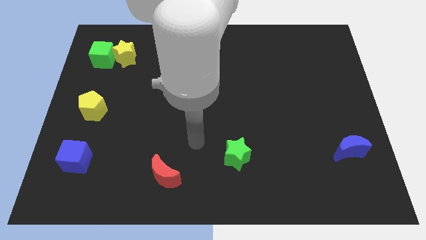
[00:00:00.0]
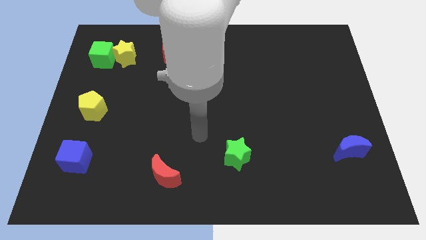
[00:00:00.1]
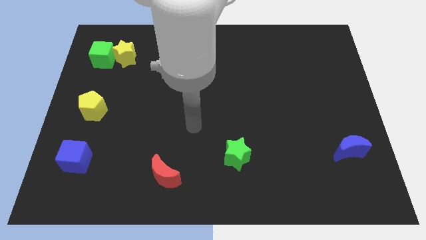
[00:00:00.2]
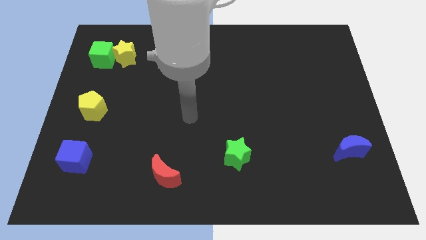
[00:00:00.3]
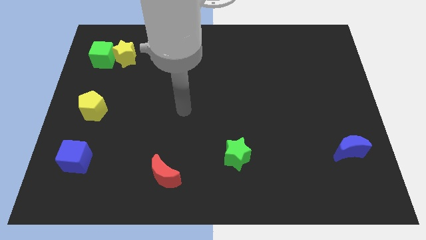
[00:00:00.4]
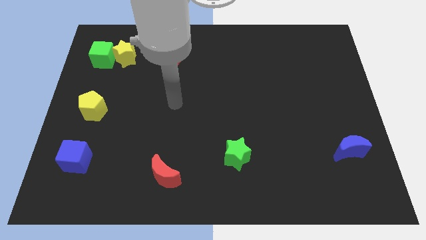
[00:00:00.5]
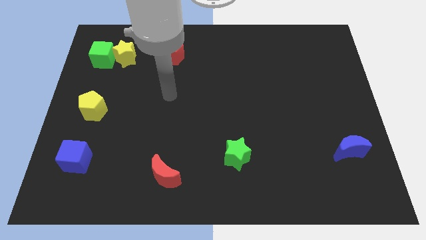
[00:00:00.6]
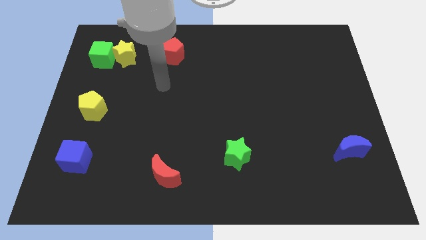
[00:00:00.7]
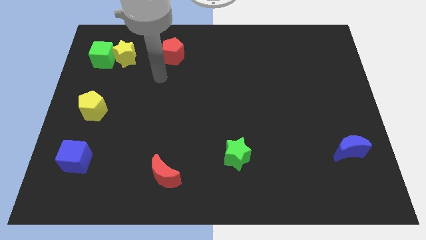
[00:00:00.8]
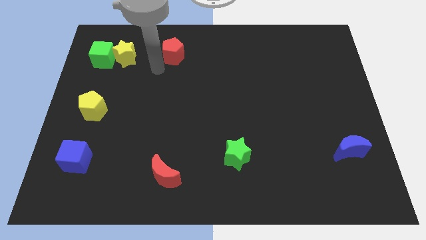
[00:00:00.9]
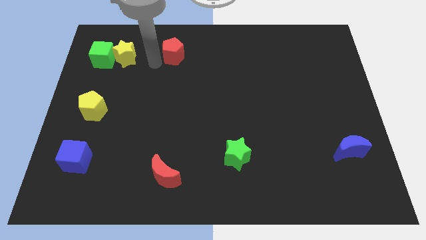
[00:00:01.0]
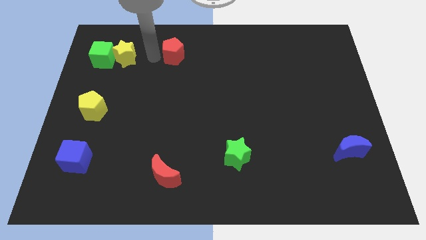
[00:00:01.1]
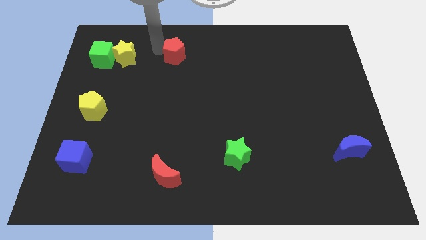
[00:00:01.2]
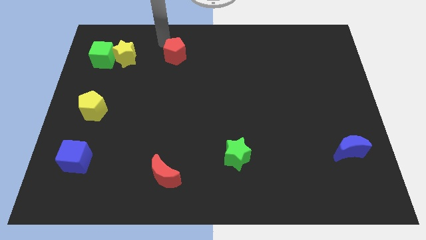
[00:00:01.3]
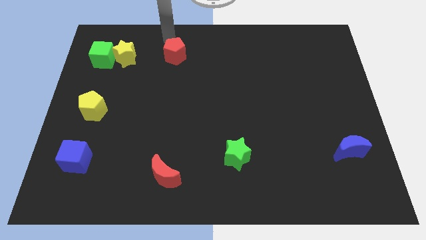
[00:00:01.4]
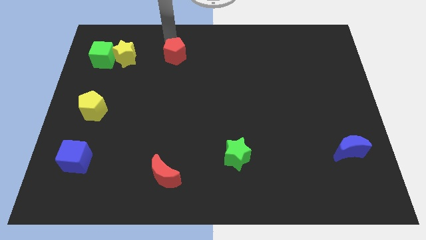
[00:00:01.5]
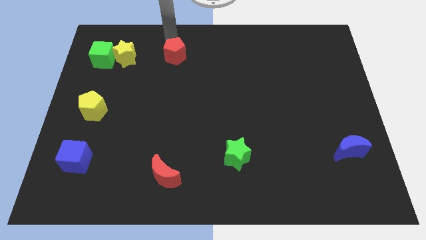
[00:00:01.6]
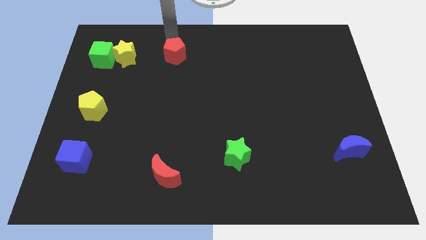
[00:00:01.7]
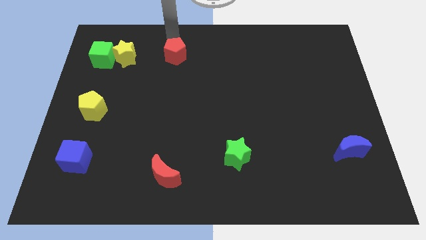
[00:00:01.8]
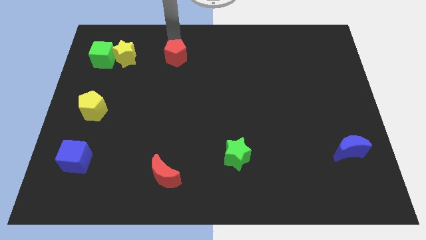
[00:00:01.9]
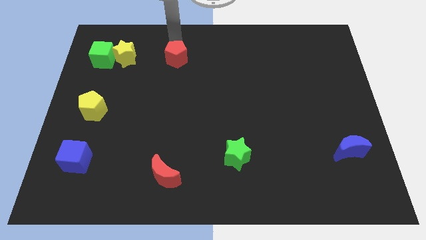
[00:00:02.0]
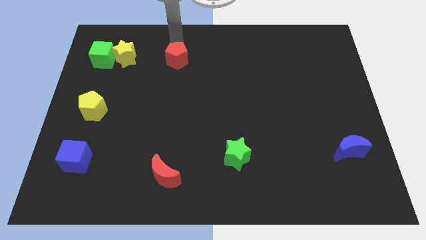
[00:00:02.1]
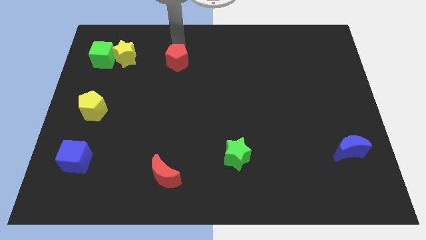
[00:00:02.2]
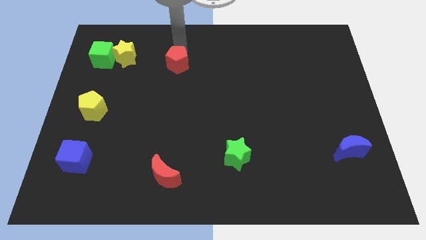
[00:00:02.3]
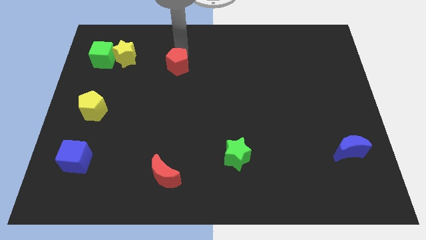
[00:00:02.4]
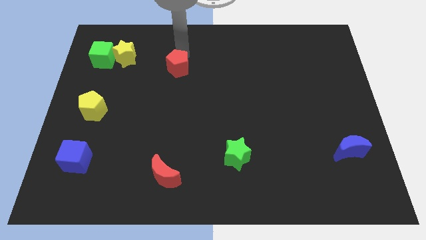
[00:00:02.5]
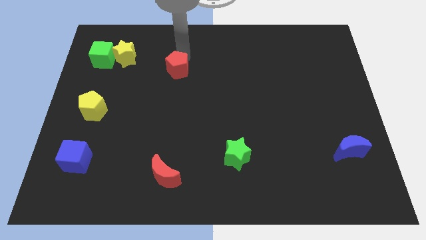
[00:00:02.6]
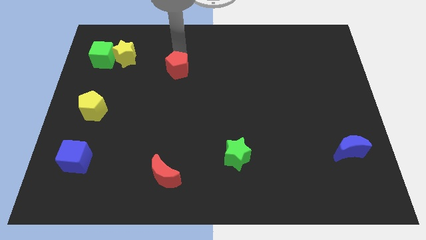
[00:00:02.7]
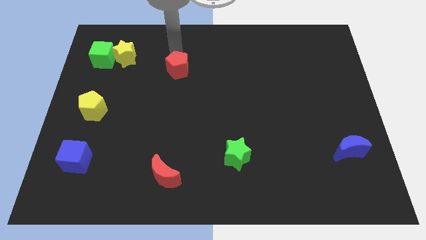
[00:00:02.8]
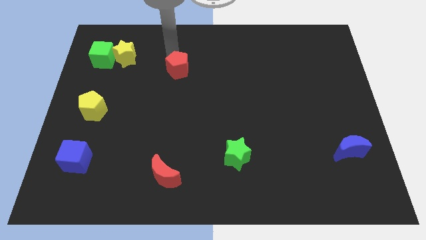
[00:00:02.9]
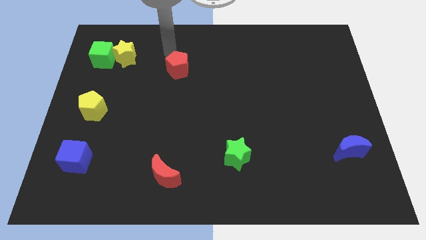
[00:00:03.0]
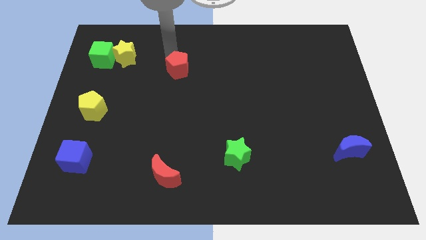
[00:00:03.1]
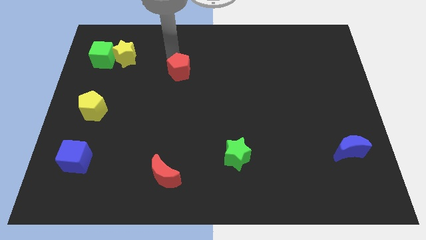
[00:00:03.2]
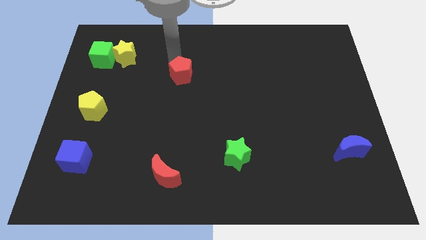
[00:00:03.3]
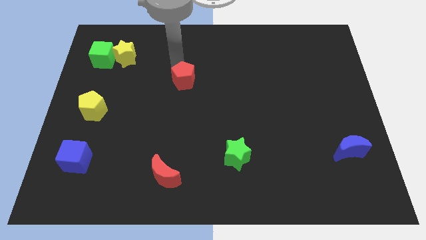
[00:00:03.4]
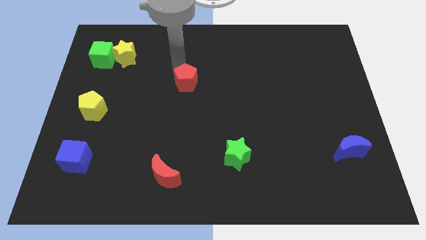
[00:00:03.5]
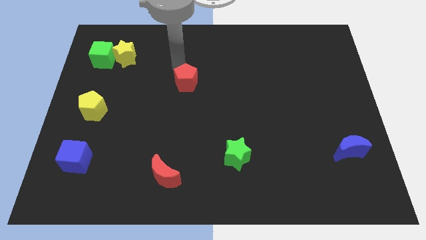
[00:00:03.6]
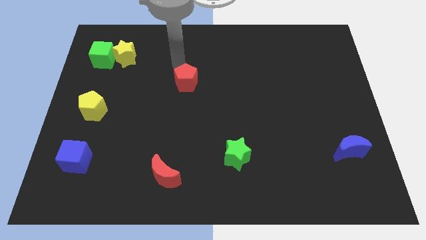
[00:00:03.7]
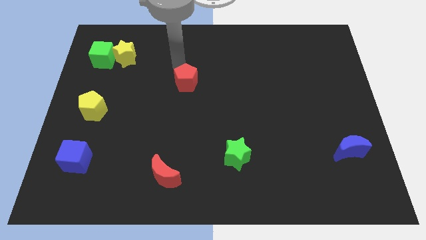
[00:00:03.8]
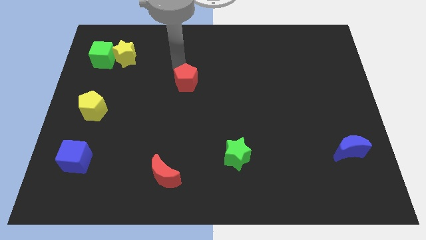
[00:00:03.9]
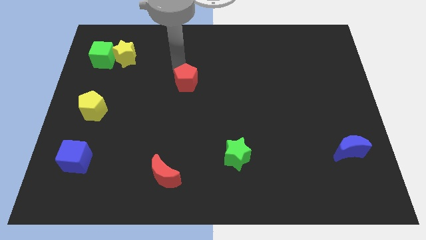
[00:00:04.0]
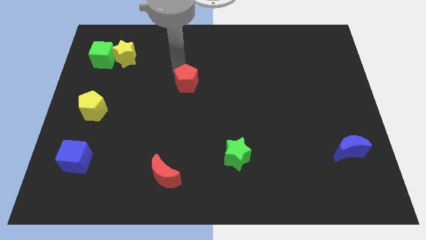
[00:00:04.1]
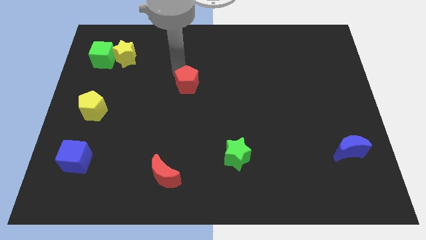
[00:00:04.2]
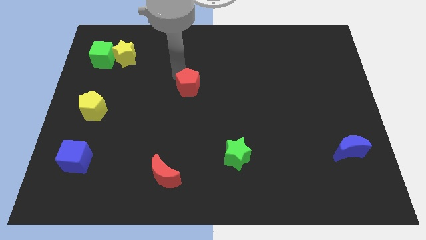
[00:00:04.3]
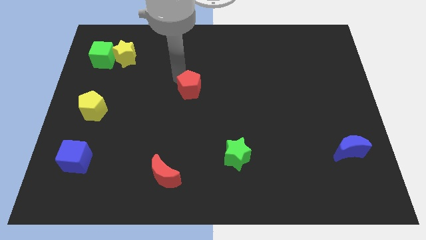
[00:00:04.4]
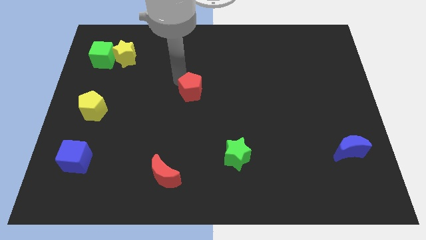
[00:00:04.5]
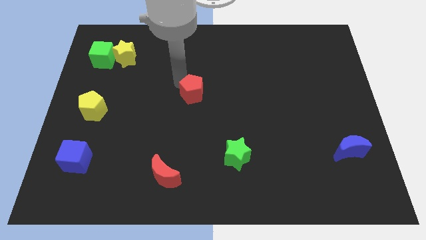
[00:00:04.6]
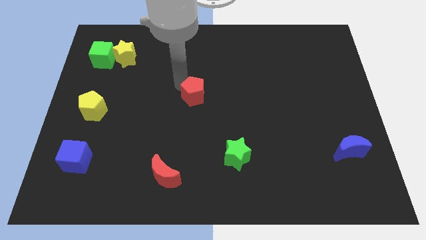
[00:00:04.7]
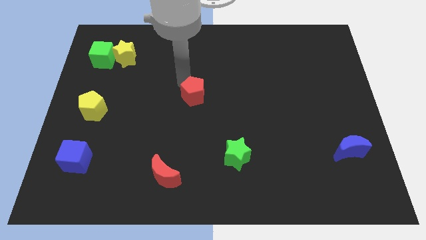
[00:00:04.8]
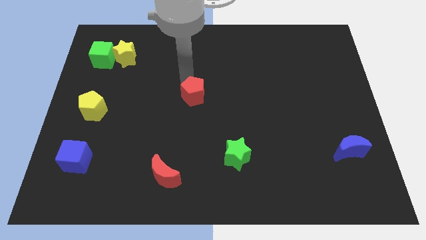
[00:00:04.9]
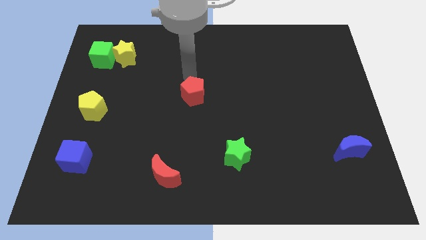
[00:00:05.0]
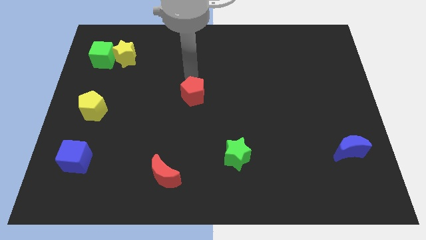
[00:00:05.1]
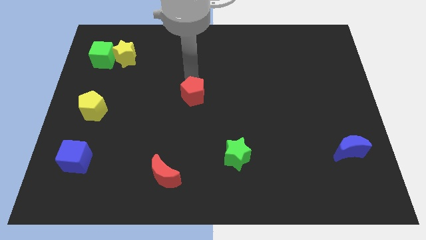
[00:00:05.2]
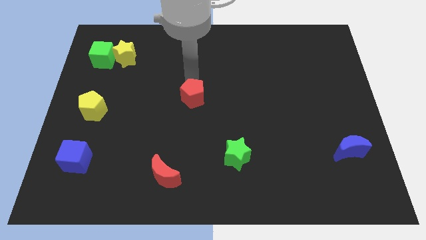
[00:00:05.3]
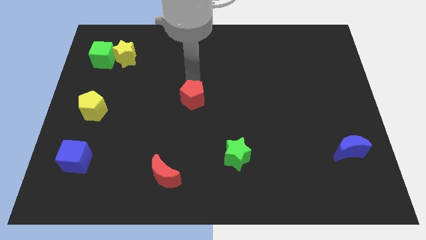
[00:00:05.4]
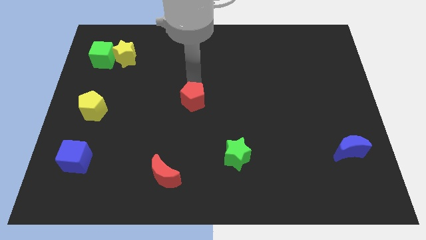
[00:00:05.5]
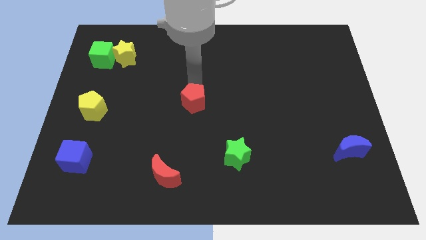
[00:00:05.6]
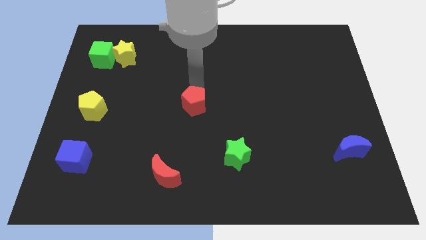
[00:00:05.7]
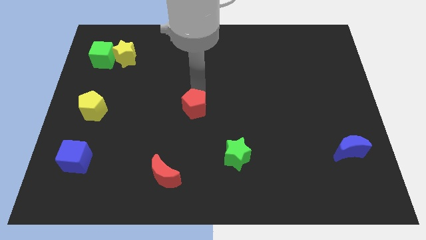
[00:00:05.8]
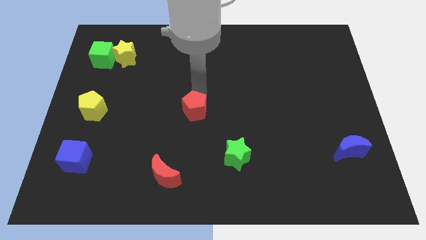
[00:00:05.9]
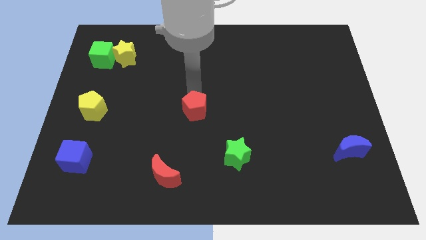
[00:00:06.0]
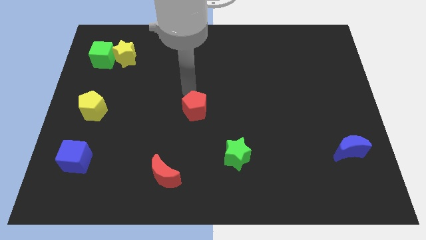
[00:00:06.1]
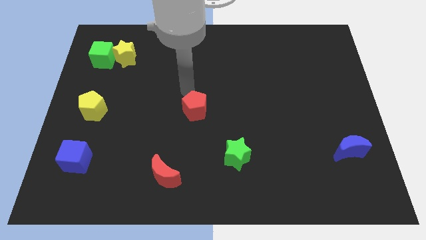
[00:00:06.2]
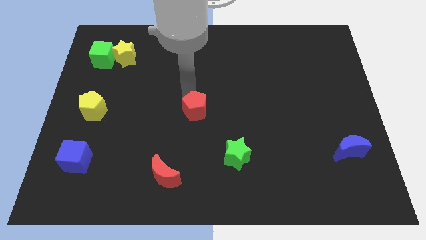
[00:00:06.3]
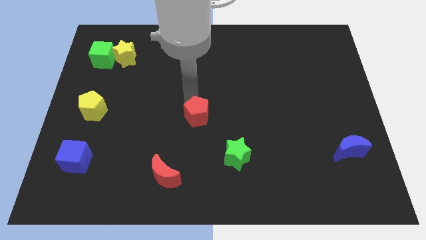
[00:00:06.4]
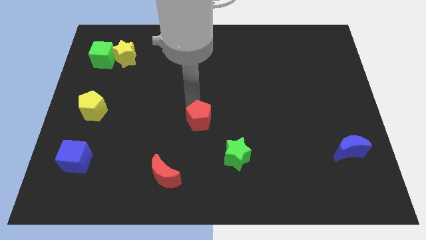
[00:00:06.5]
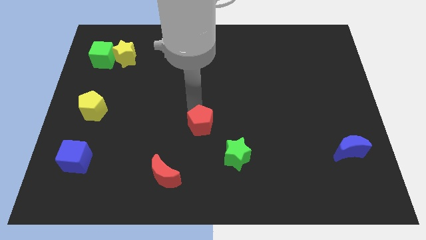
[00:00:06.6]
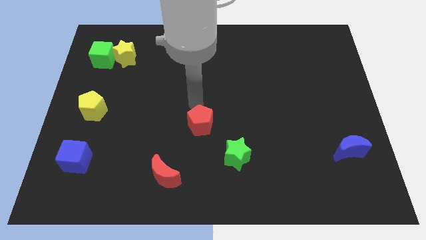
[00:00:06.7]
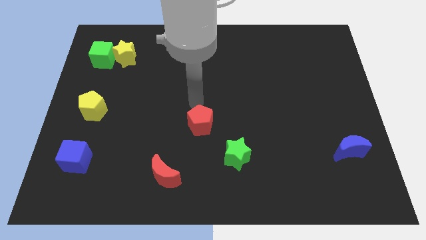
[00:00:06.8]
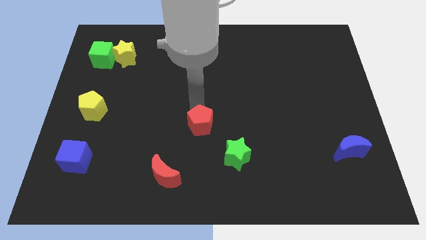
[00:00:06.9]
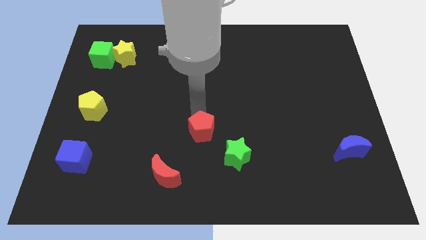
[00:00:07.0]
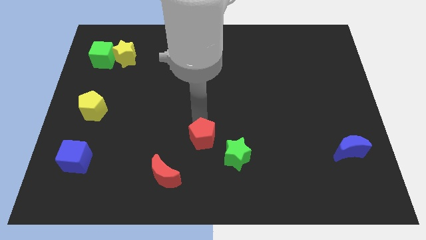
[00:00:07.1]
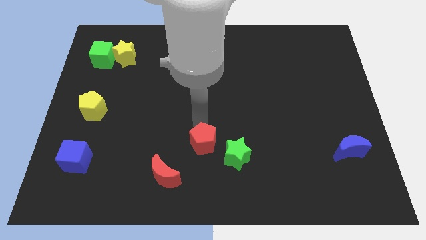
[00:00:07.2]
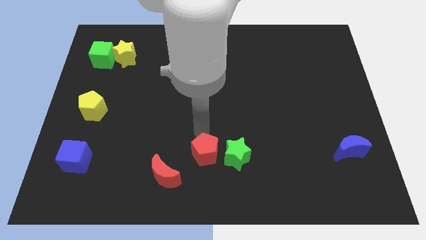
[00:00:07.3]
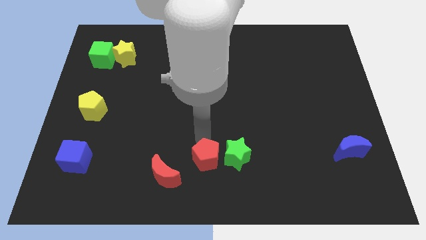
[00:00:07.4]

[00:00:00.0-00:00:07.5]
move the red pentagon to the bottom left side of the green star
